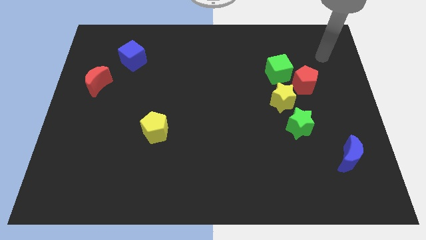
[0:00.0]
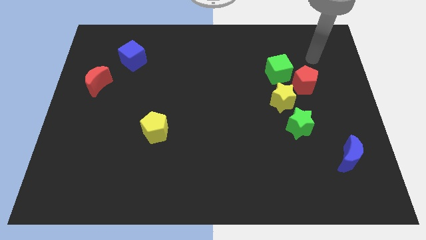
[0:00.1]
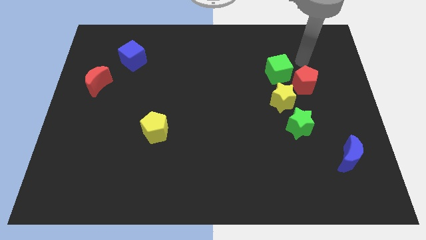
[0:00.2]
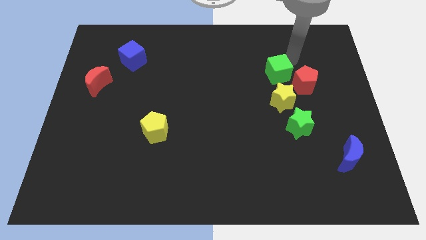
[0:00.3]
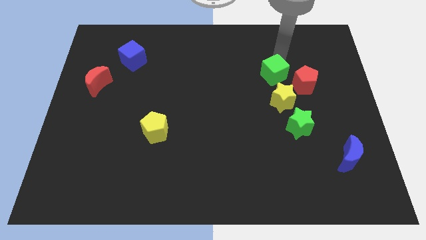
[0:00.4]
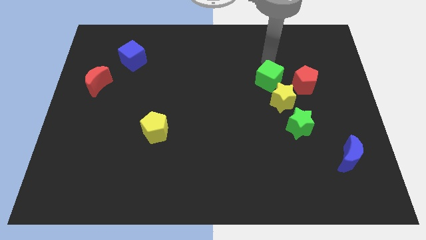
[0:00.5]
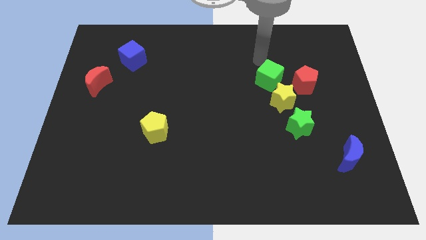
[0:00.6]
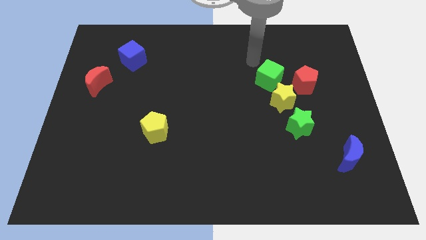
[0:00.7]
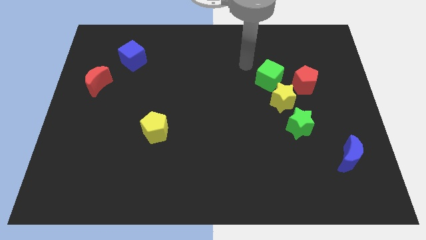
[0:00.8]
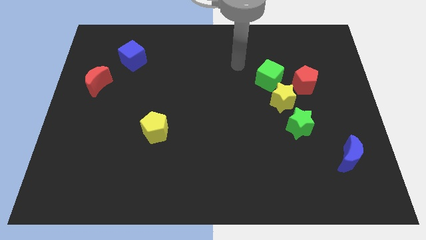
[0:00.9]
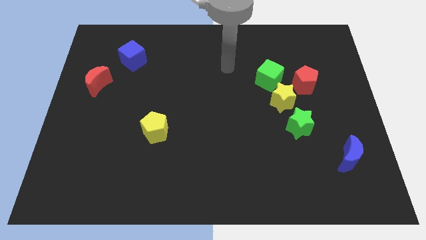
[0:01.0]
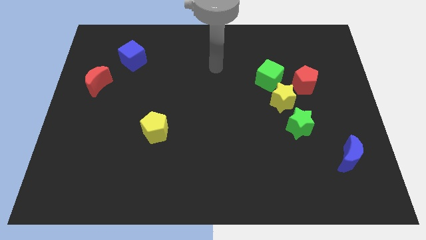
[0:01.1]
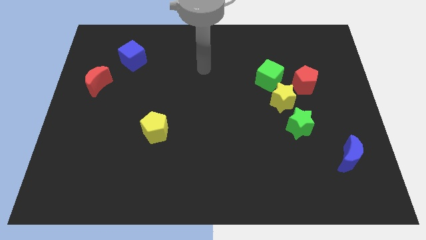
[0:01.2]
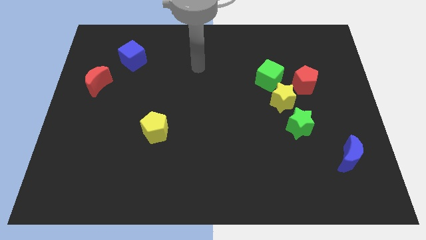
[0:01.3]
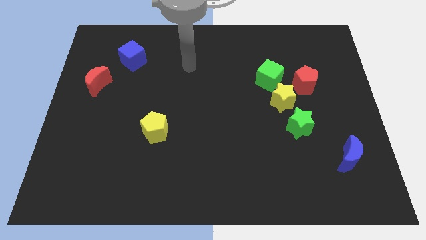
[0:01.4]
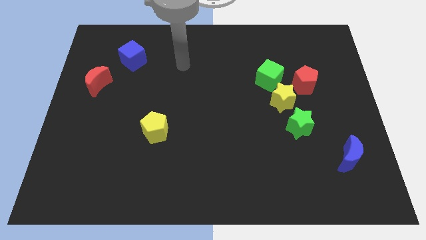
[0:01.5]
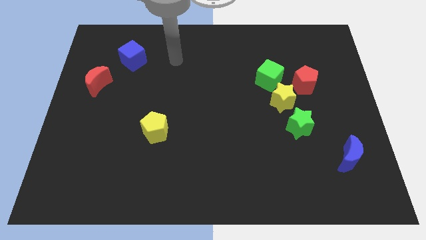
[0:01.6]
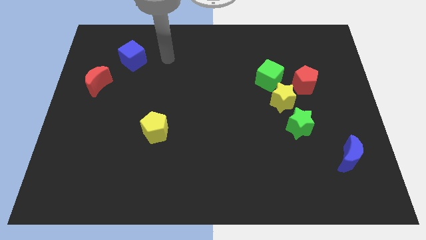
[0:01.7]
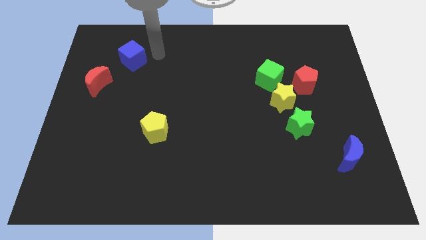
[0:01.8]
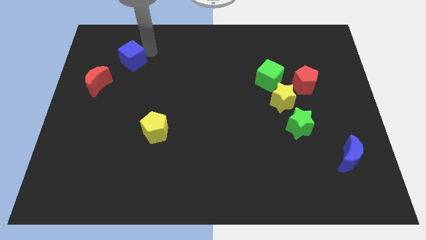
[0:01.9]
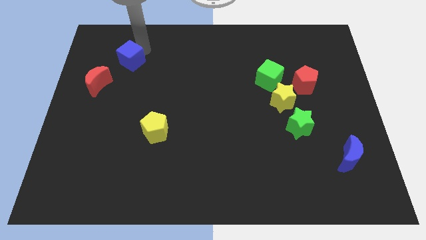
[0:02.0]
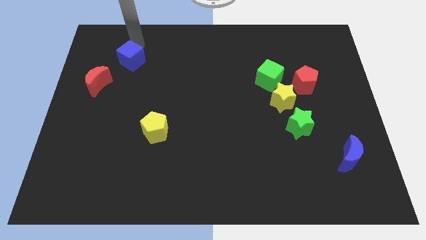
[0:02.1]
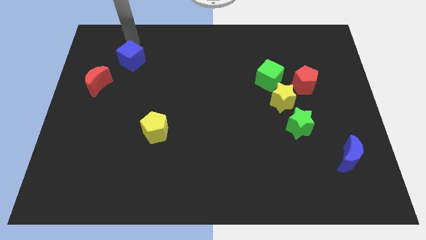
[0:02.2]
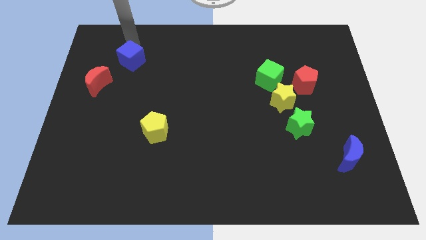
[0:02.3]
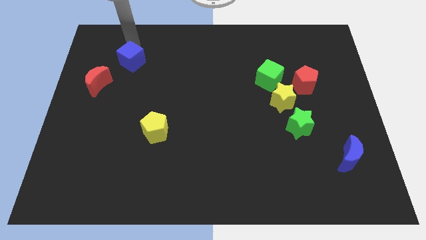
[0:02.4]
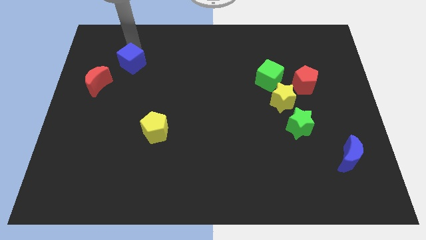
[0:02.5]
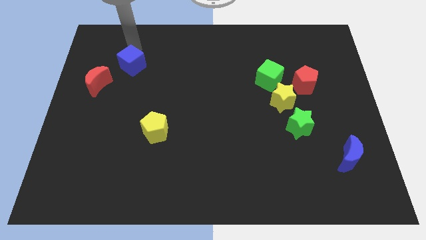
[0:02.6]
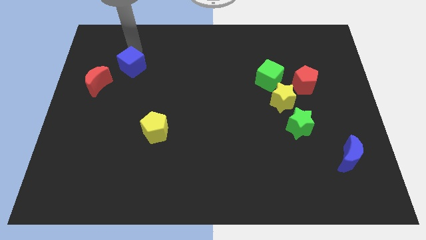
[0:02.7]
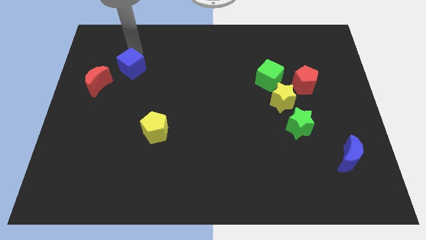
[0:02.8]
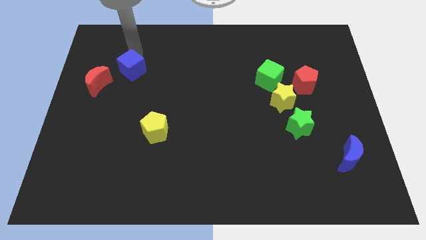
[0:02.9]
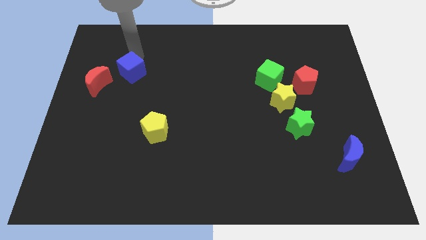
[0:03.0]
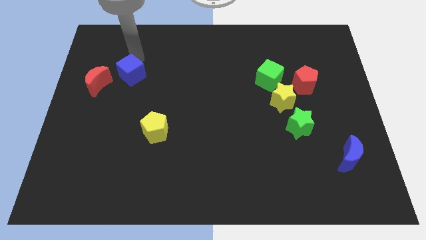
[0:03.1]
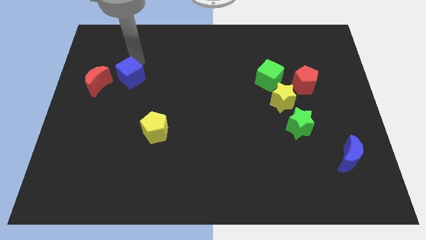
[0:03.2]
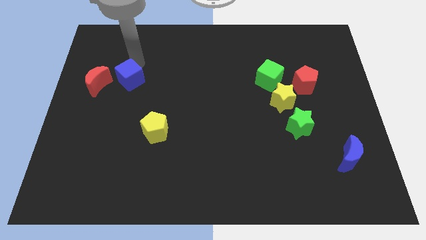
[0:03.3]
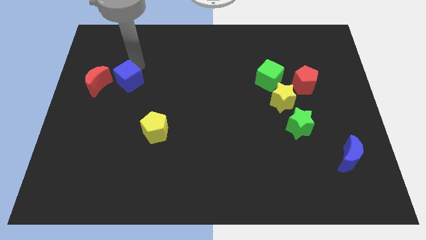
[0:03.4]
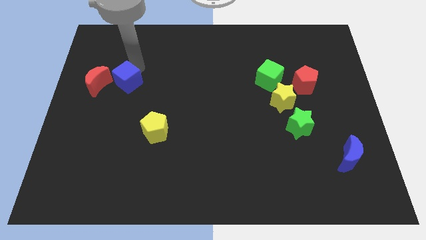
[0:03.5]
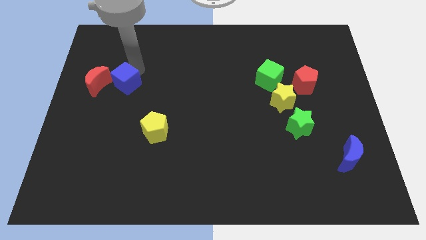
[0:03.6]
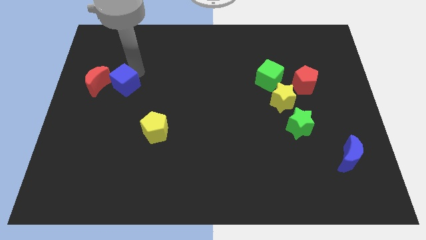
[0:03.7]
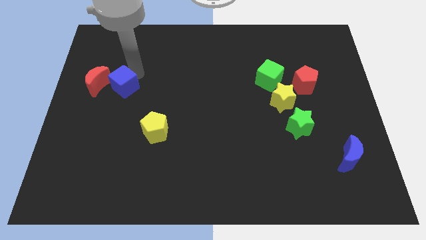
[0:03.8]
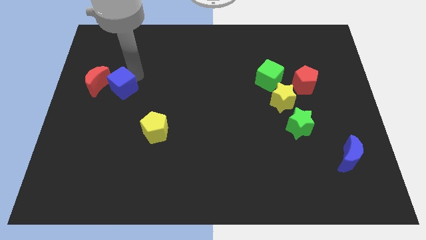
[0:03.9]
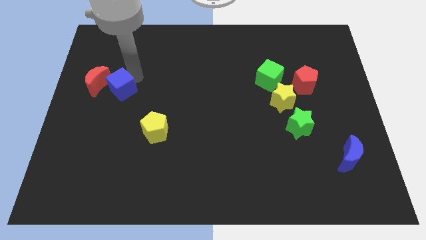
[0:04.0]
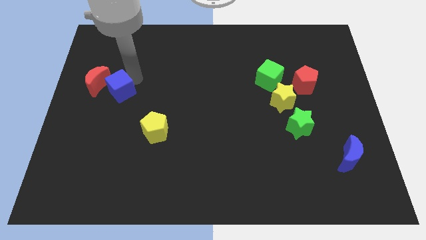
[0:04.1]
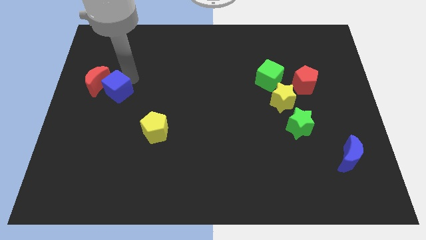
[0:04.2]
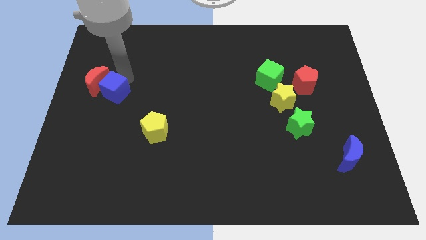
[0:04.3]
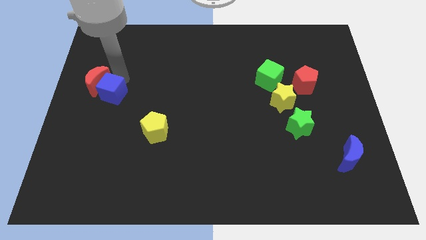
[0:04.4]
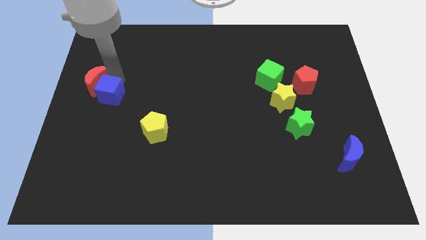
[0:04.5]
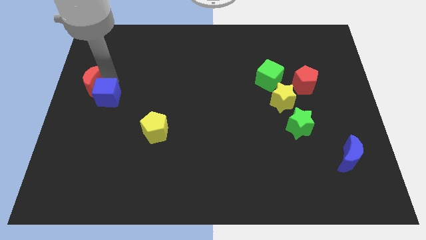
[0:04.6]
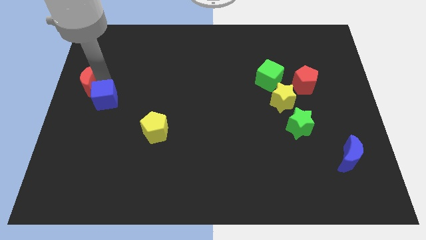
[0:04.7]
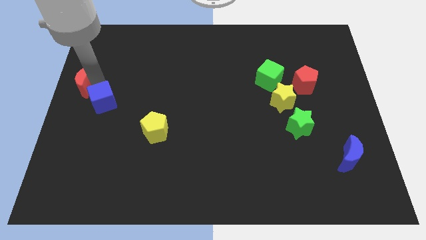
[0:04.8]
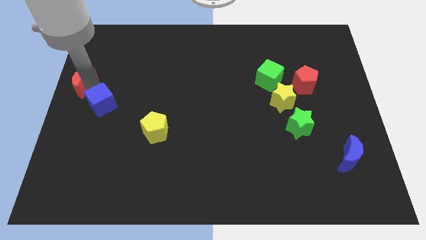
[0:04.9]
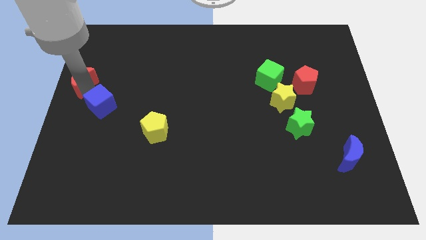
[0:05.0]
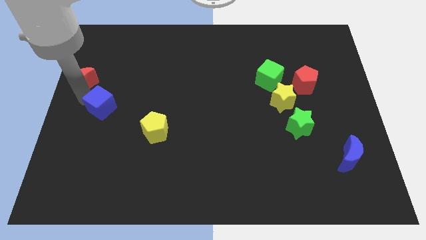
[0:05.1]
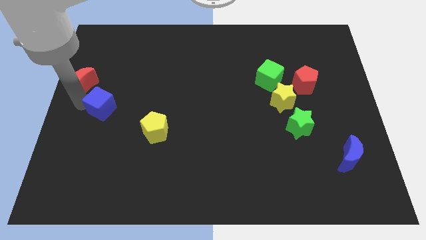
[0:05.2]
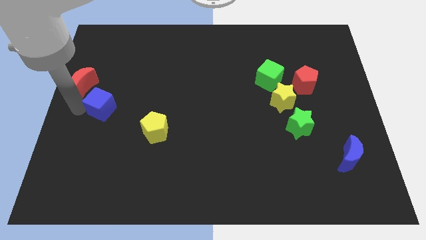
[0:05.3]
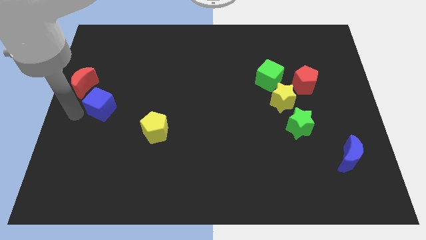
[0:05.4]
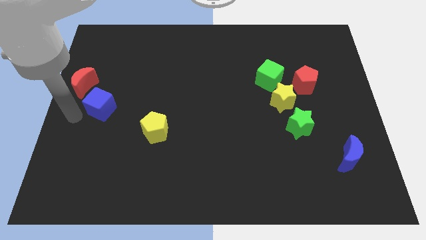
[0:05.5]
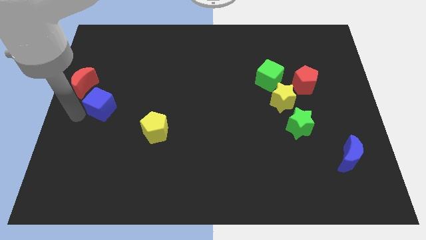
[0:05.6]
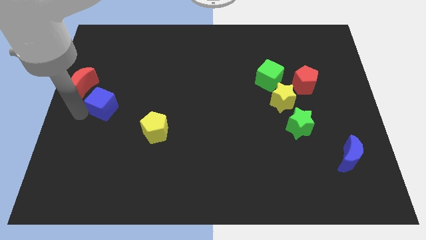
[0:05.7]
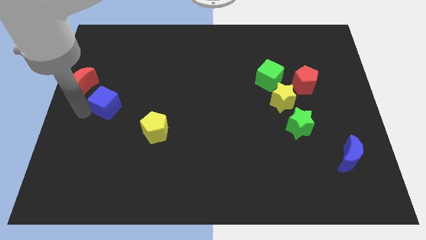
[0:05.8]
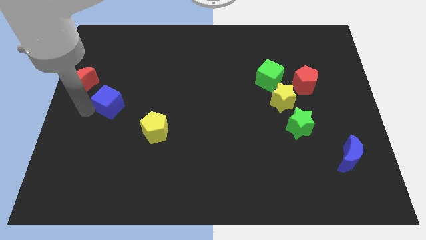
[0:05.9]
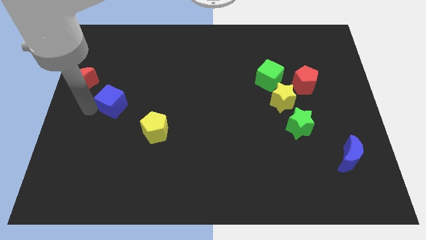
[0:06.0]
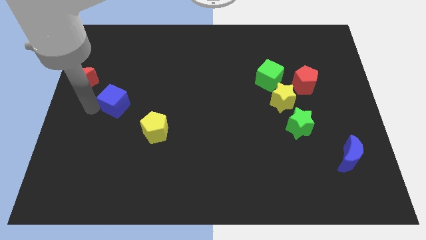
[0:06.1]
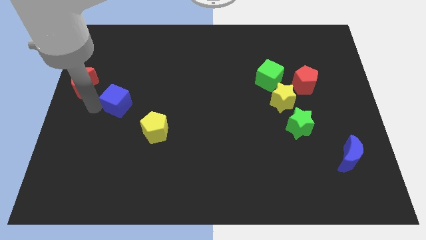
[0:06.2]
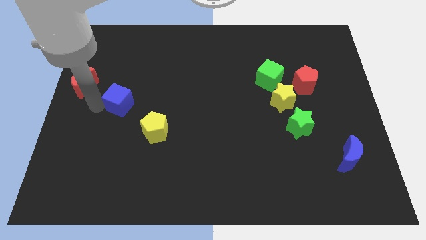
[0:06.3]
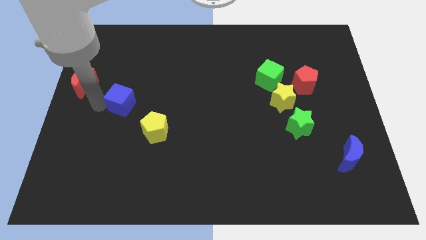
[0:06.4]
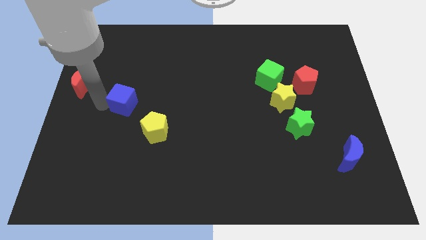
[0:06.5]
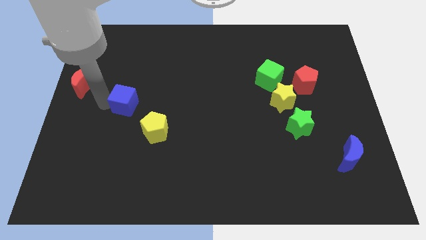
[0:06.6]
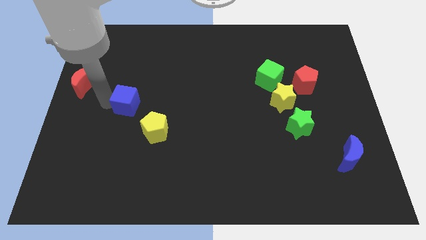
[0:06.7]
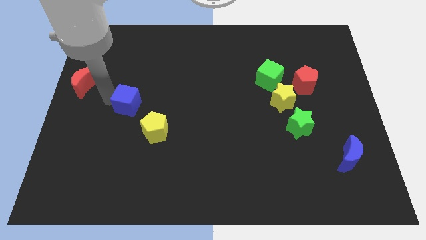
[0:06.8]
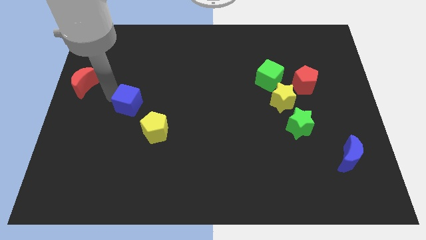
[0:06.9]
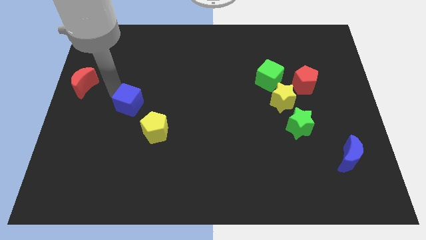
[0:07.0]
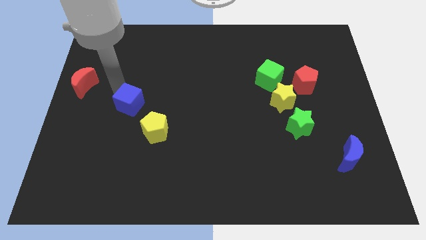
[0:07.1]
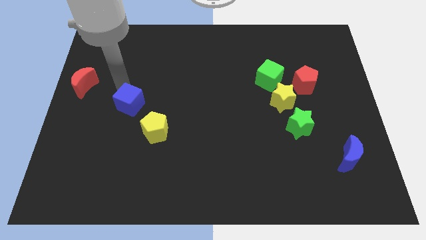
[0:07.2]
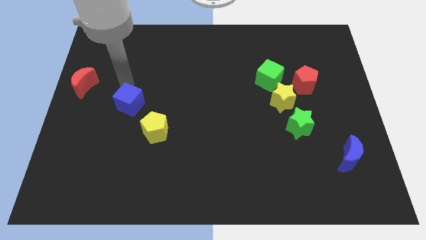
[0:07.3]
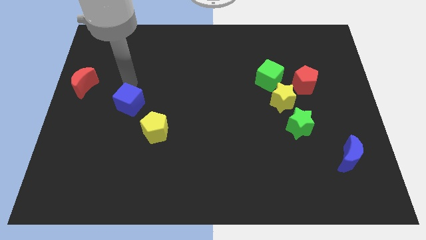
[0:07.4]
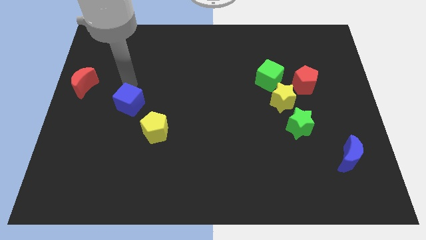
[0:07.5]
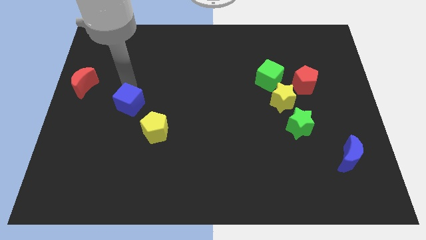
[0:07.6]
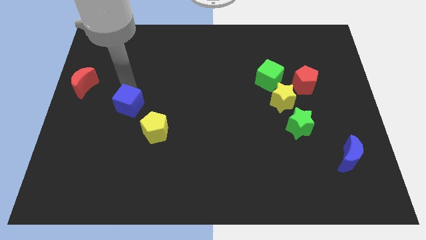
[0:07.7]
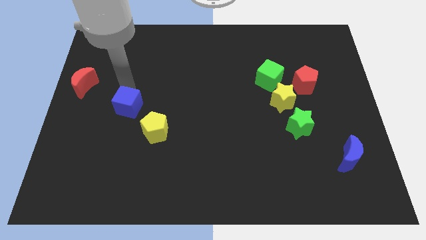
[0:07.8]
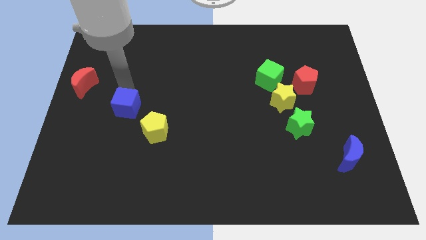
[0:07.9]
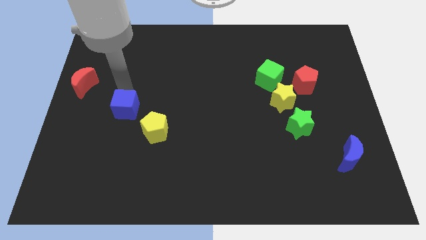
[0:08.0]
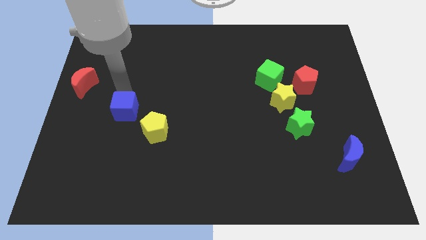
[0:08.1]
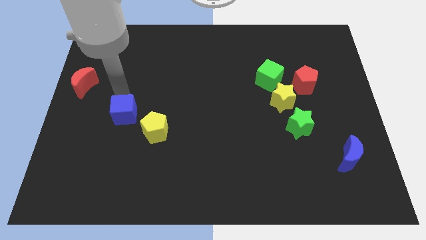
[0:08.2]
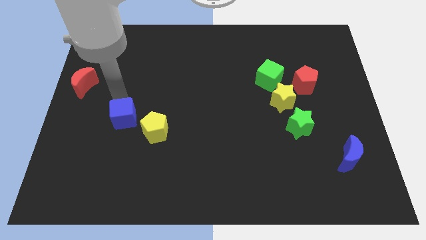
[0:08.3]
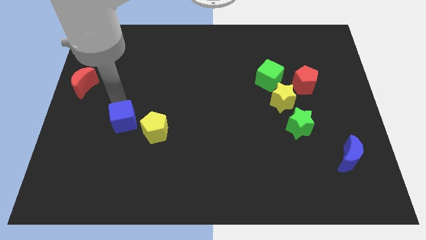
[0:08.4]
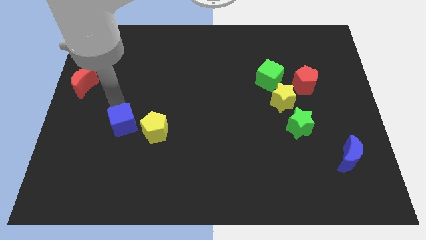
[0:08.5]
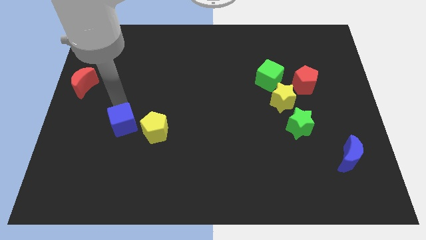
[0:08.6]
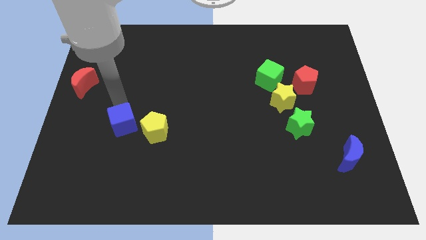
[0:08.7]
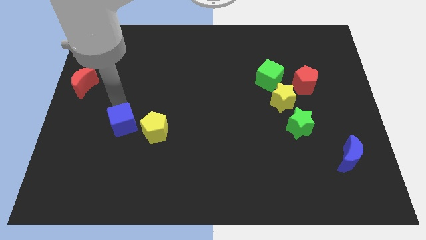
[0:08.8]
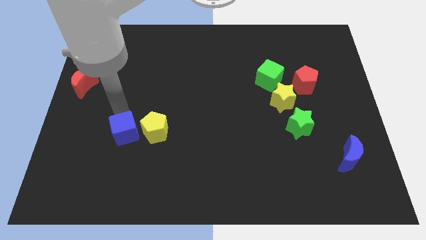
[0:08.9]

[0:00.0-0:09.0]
put the blue cube diagonally down and to the left of the yellow pentagon
